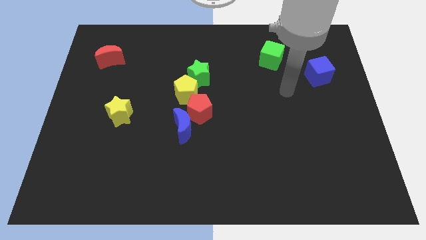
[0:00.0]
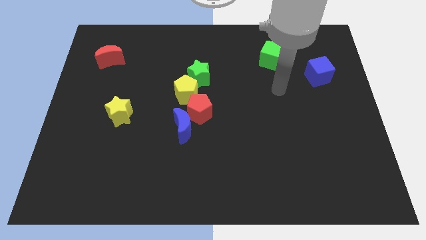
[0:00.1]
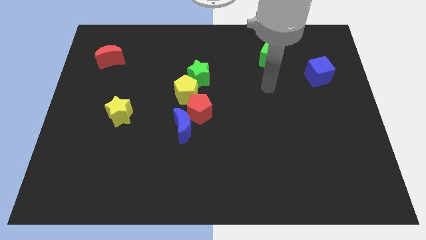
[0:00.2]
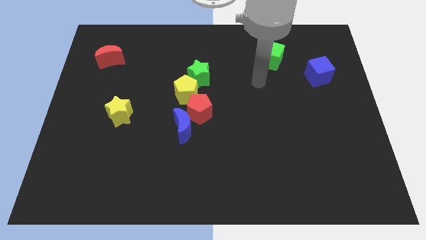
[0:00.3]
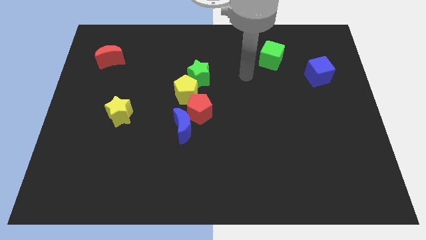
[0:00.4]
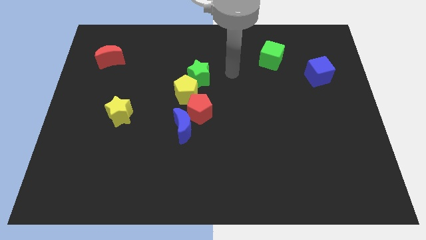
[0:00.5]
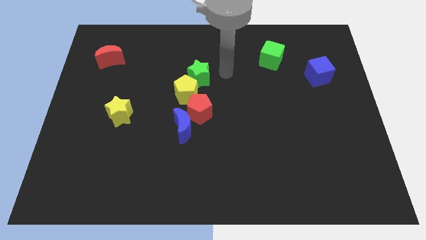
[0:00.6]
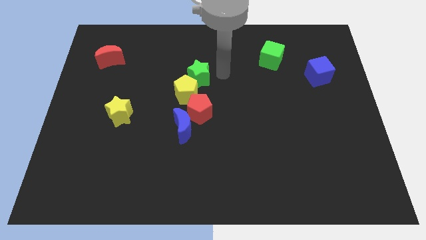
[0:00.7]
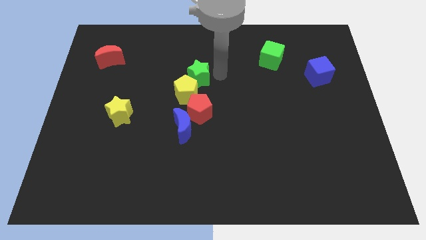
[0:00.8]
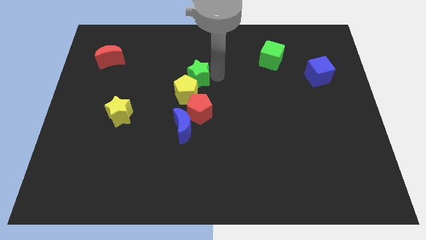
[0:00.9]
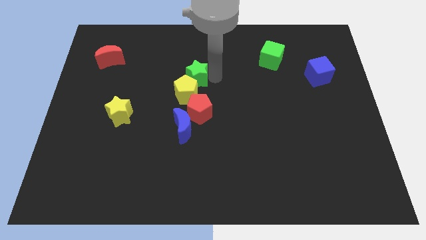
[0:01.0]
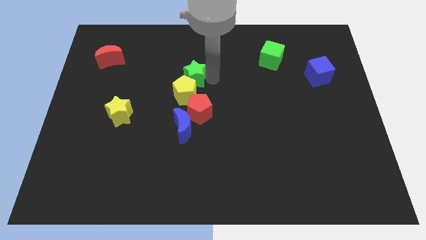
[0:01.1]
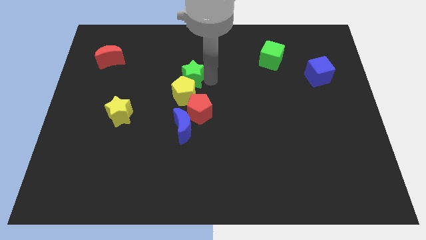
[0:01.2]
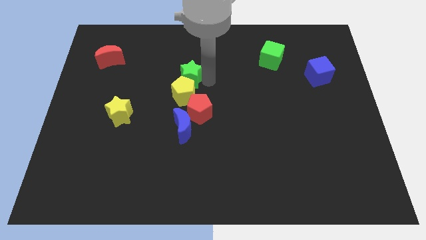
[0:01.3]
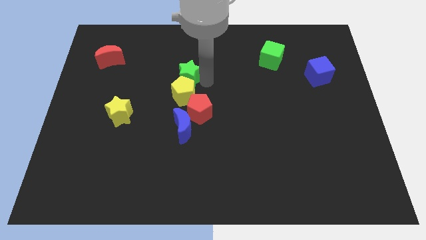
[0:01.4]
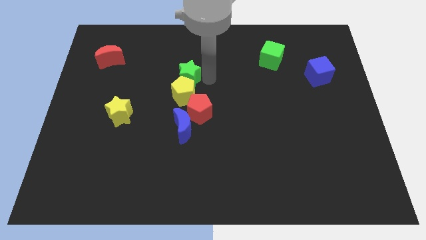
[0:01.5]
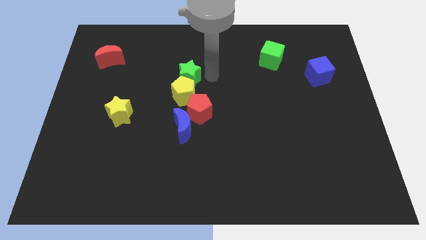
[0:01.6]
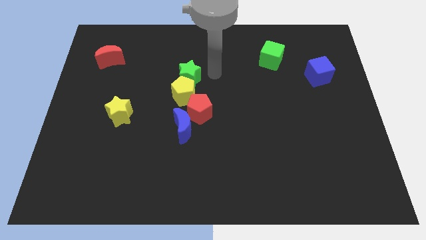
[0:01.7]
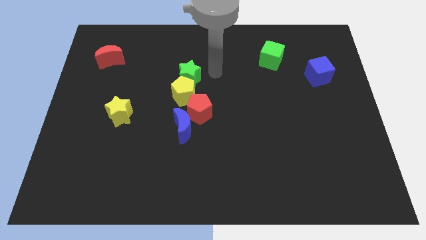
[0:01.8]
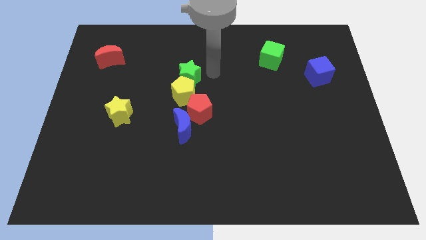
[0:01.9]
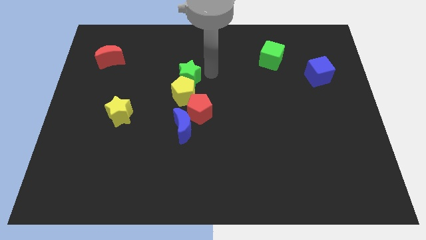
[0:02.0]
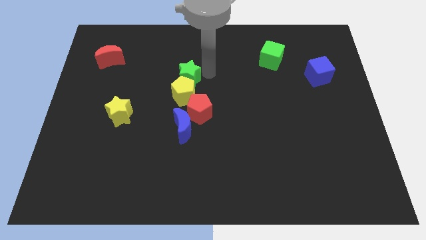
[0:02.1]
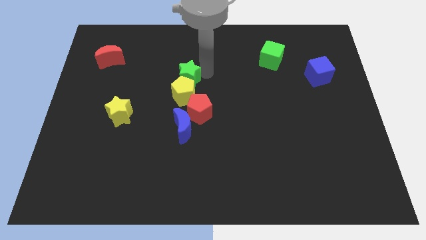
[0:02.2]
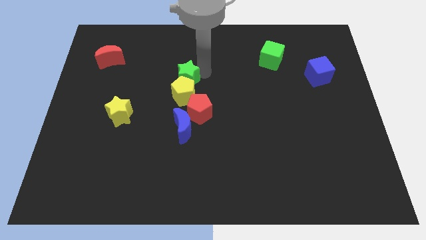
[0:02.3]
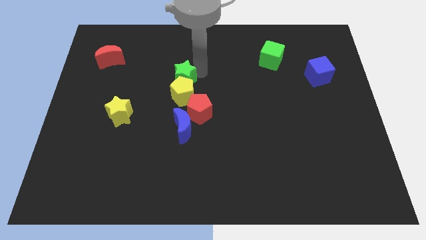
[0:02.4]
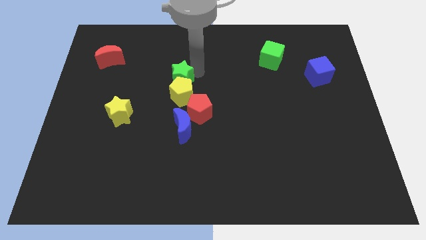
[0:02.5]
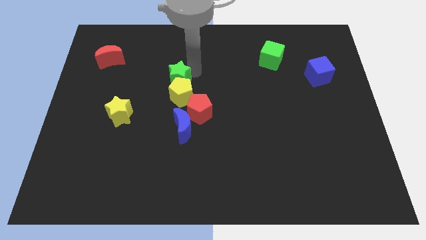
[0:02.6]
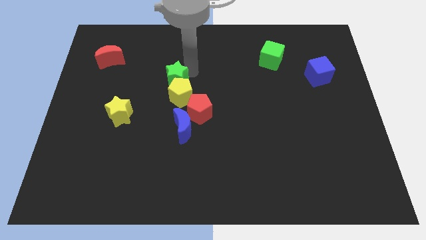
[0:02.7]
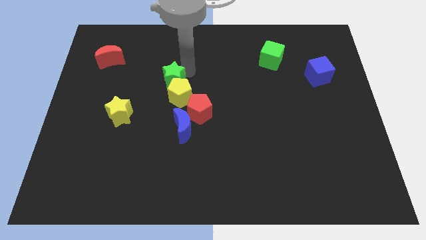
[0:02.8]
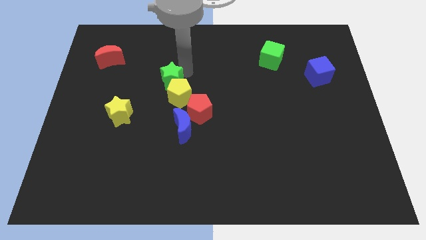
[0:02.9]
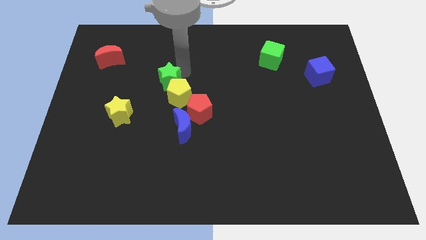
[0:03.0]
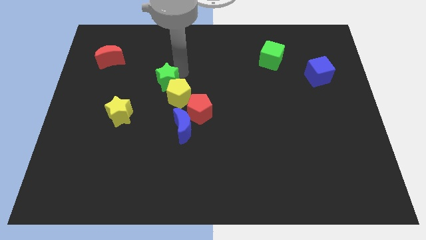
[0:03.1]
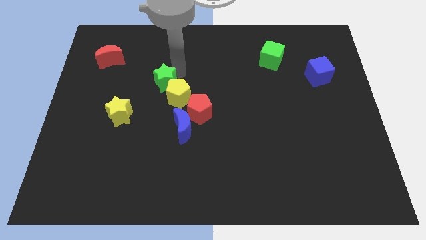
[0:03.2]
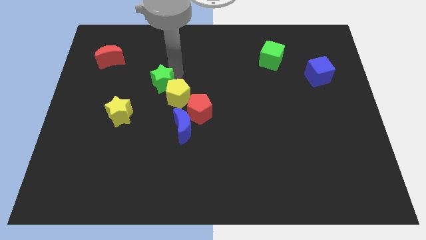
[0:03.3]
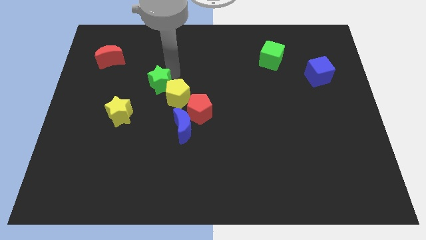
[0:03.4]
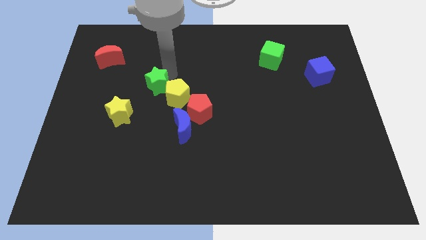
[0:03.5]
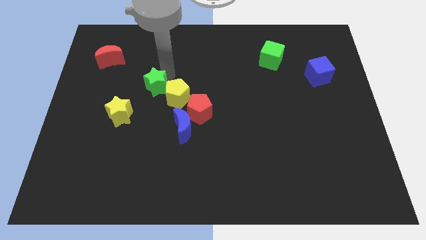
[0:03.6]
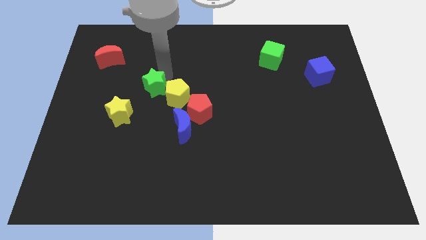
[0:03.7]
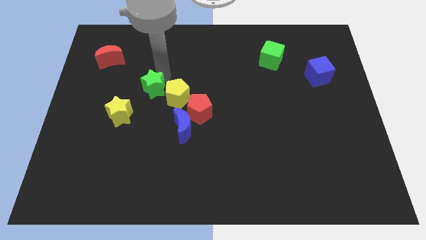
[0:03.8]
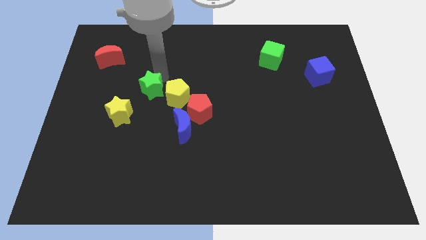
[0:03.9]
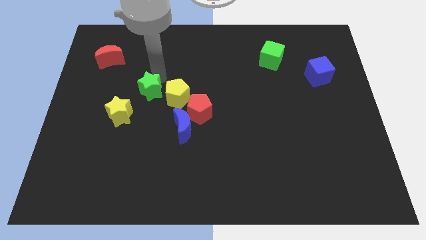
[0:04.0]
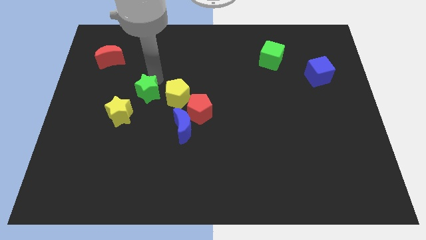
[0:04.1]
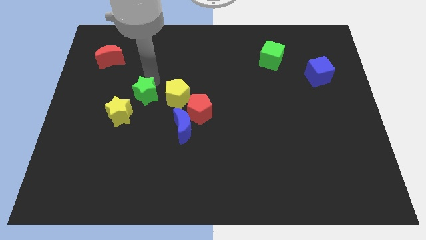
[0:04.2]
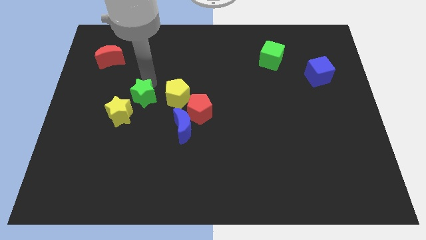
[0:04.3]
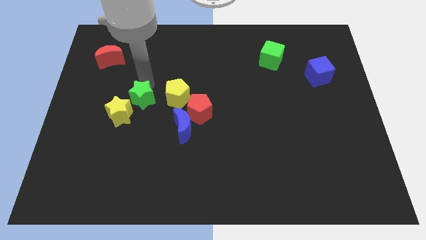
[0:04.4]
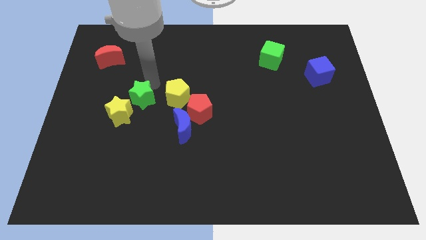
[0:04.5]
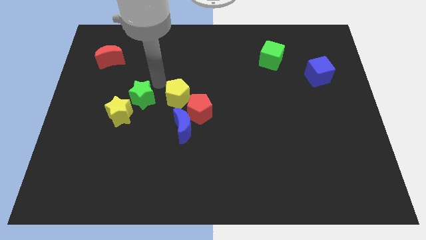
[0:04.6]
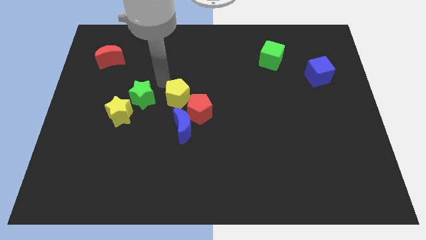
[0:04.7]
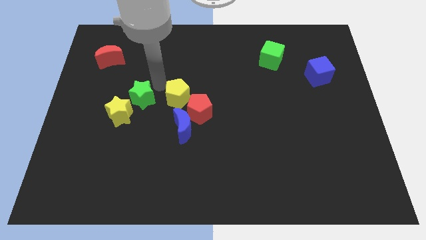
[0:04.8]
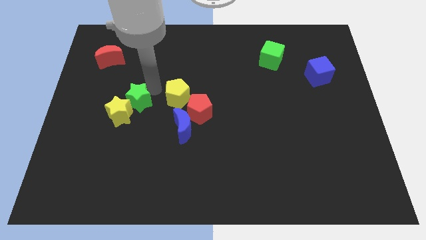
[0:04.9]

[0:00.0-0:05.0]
push the green star close to the yellow star

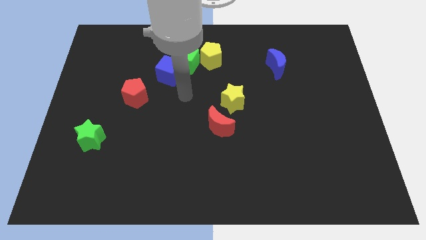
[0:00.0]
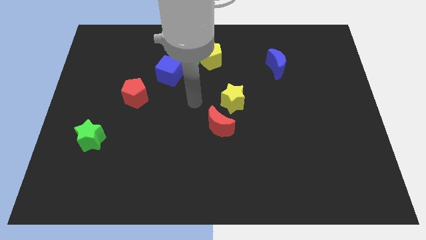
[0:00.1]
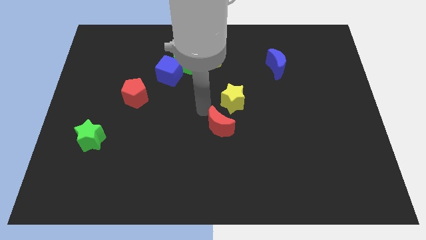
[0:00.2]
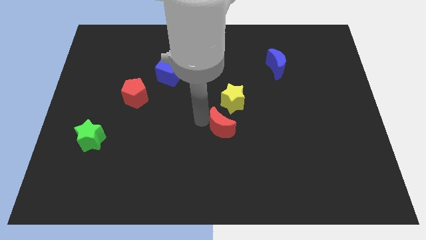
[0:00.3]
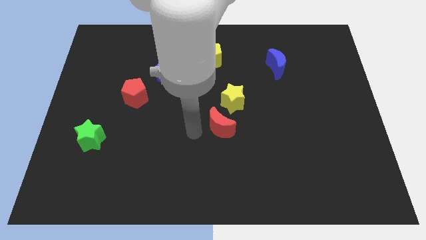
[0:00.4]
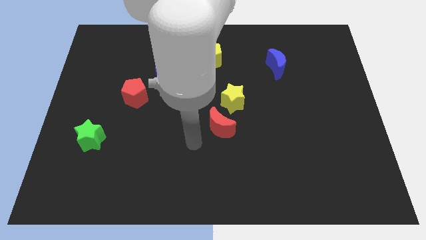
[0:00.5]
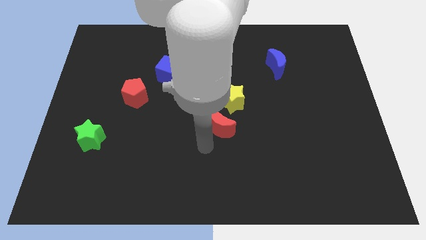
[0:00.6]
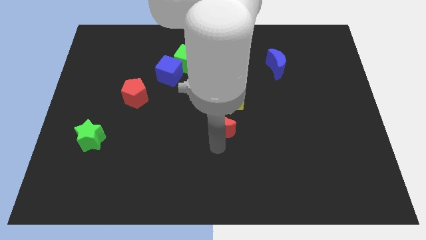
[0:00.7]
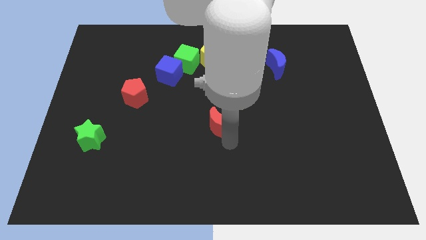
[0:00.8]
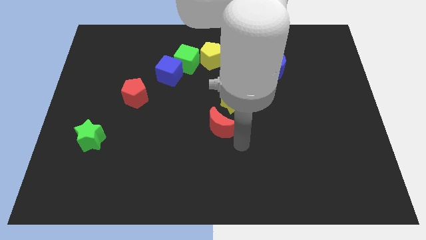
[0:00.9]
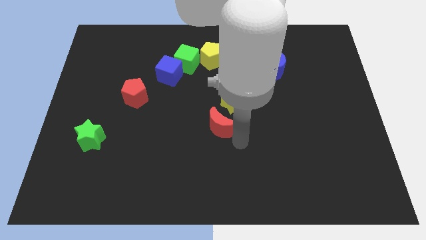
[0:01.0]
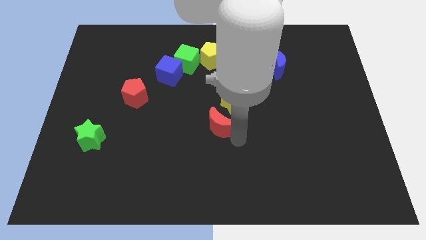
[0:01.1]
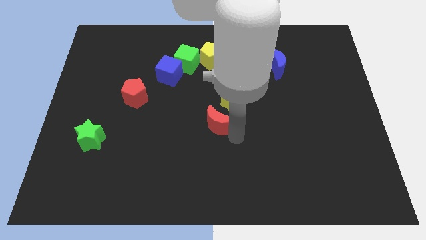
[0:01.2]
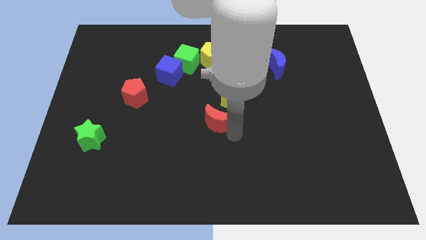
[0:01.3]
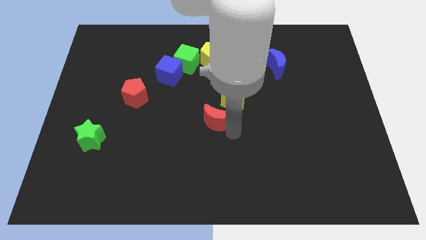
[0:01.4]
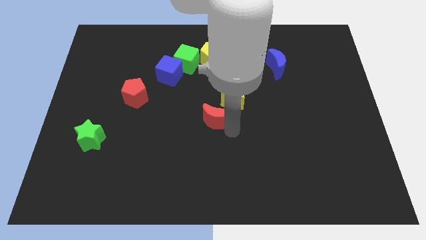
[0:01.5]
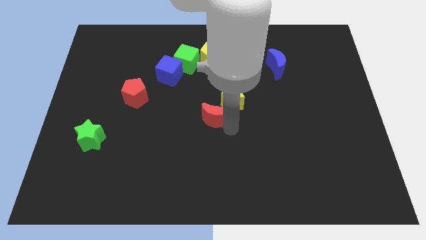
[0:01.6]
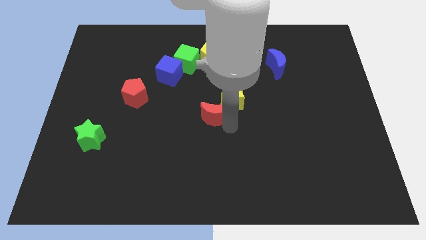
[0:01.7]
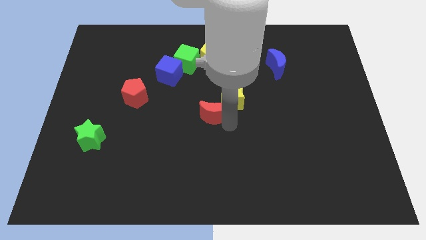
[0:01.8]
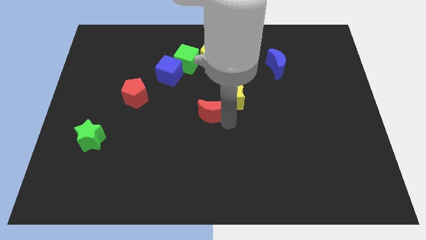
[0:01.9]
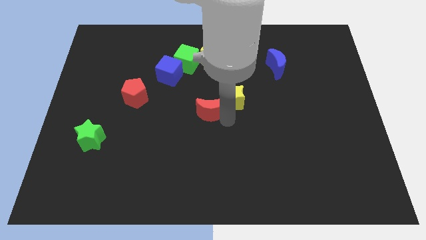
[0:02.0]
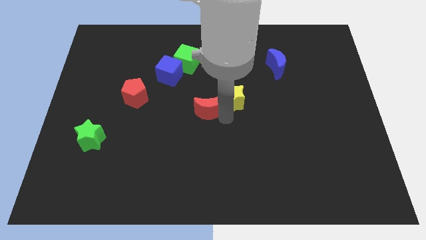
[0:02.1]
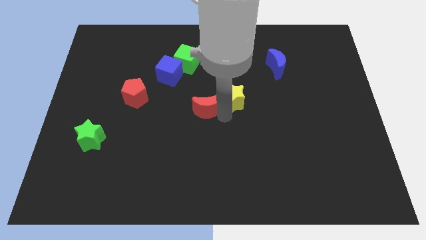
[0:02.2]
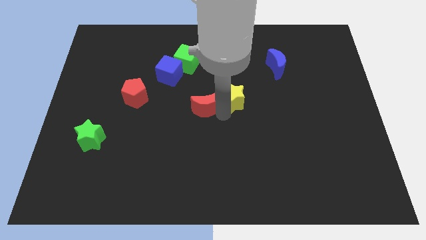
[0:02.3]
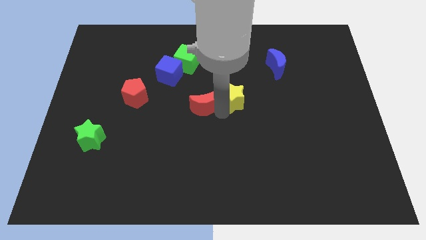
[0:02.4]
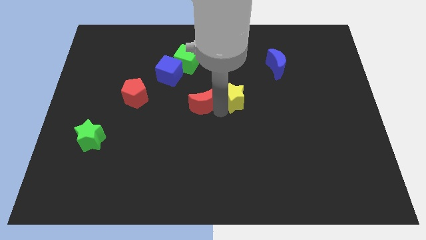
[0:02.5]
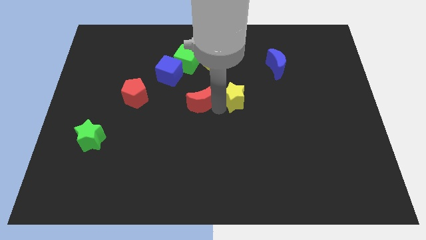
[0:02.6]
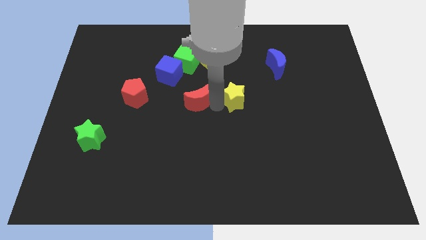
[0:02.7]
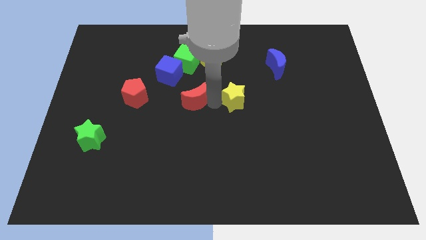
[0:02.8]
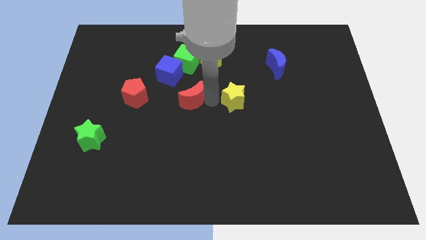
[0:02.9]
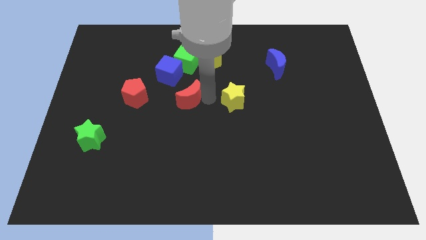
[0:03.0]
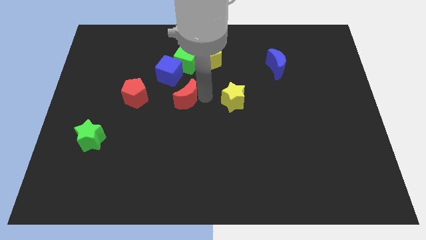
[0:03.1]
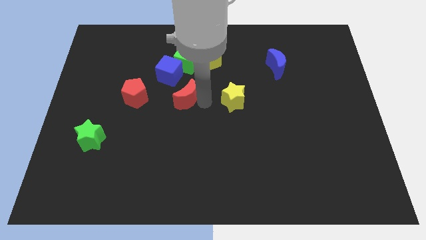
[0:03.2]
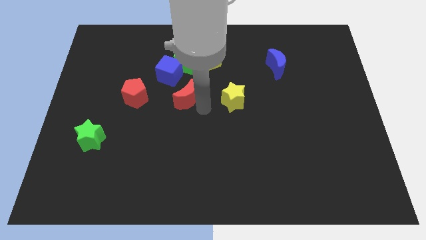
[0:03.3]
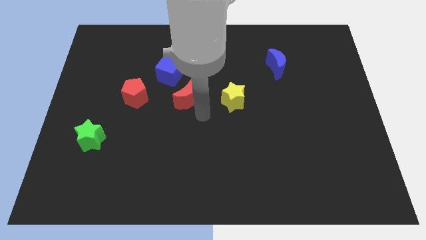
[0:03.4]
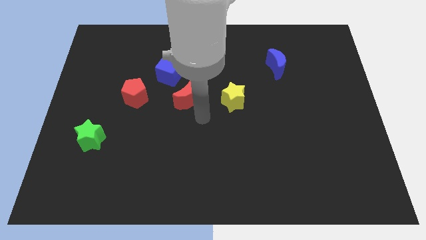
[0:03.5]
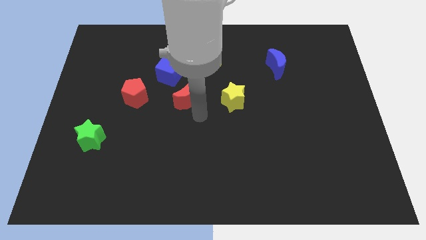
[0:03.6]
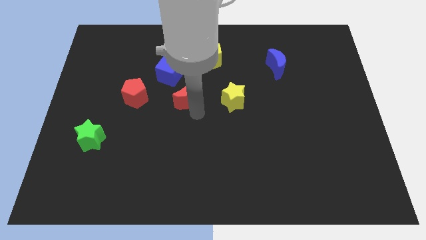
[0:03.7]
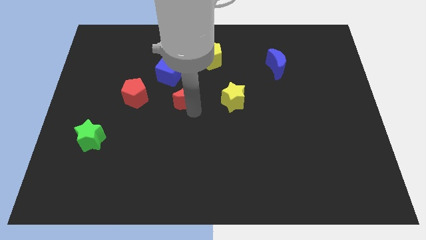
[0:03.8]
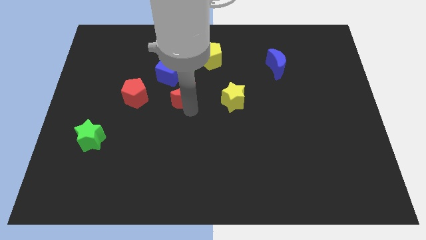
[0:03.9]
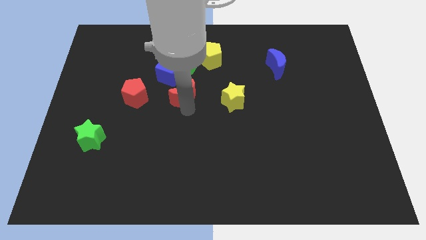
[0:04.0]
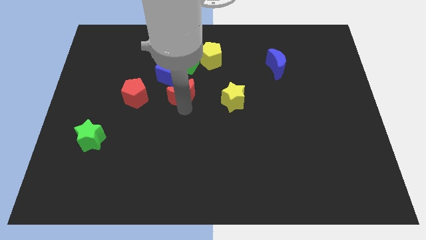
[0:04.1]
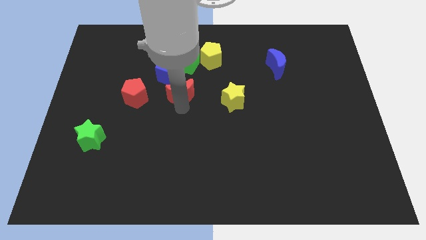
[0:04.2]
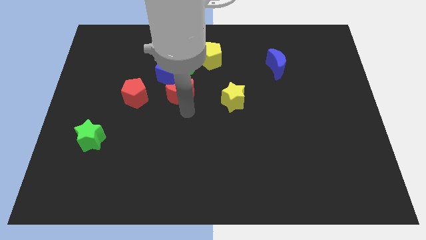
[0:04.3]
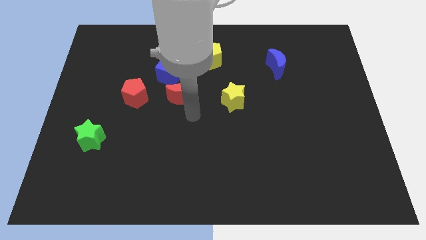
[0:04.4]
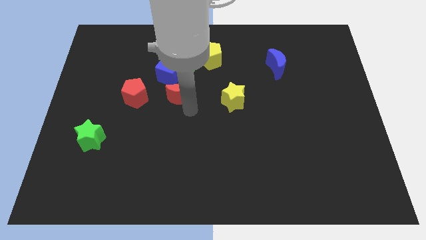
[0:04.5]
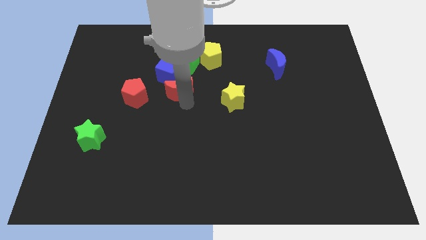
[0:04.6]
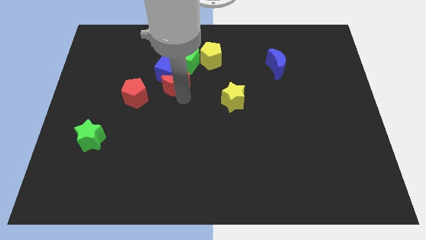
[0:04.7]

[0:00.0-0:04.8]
move the red moon towards the blue cube
